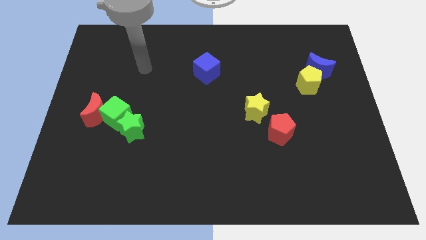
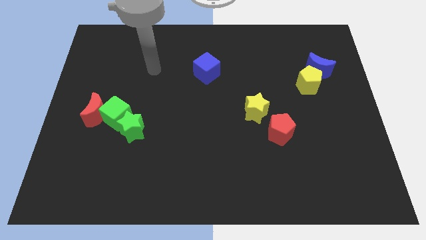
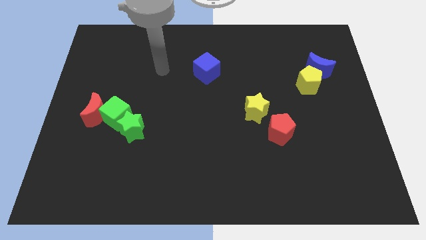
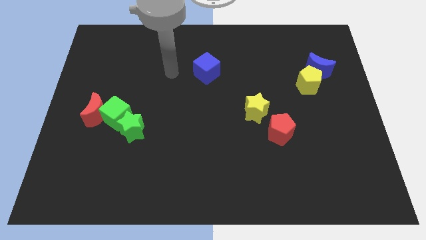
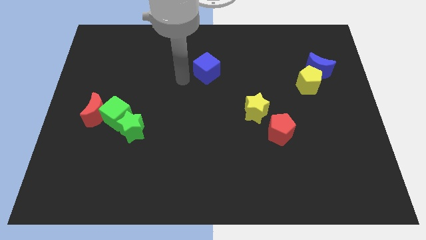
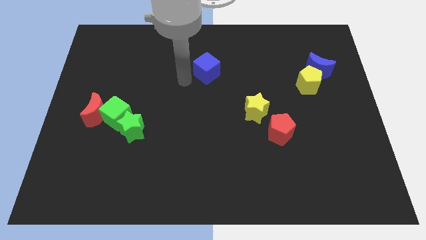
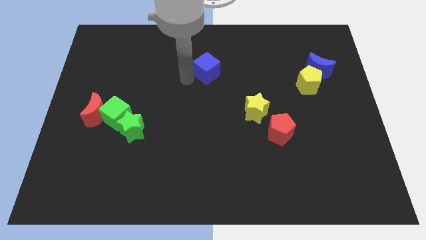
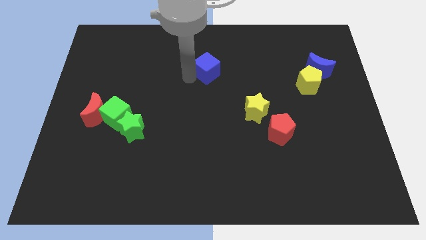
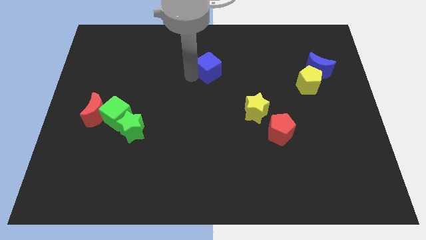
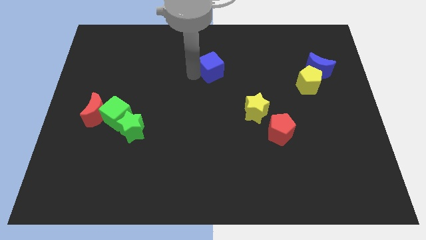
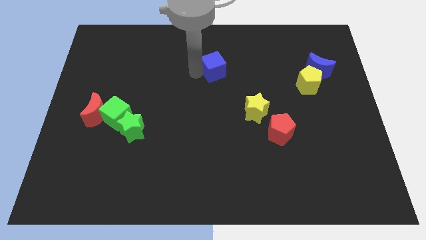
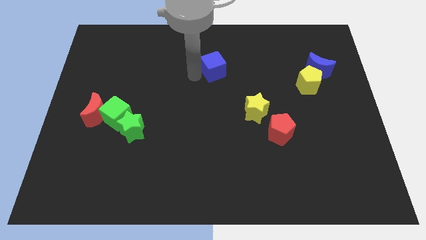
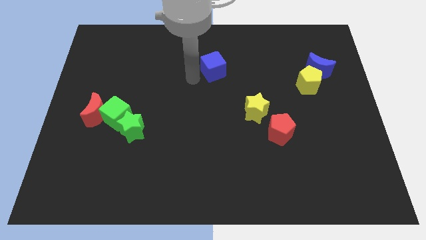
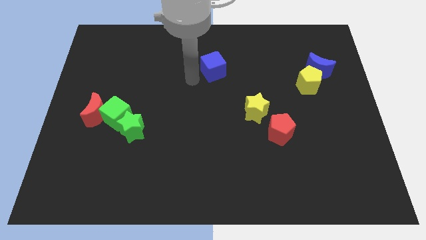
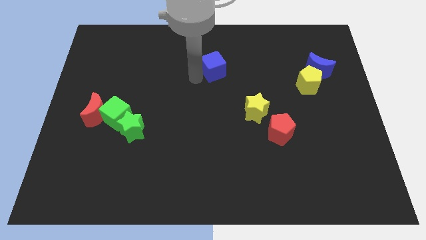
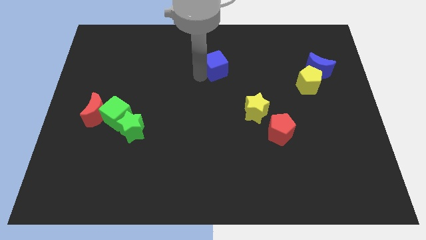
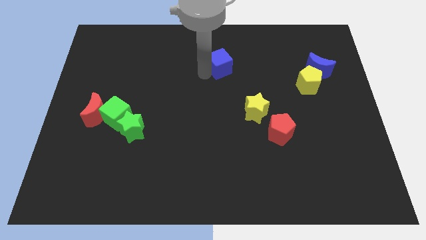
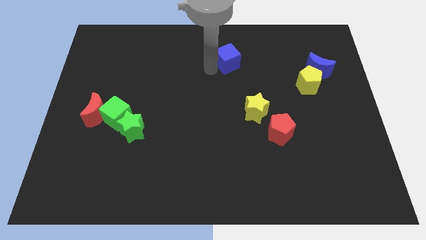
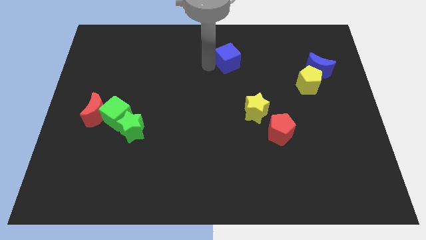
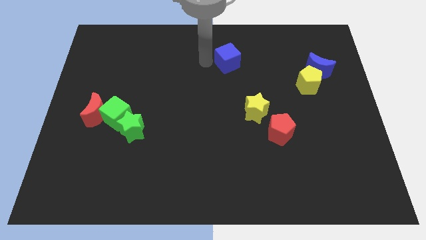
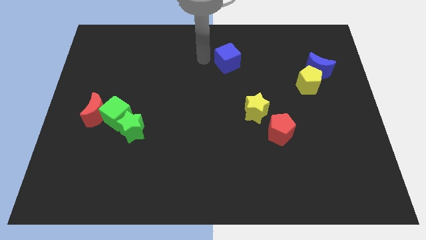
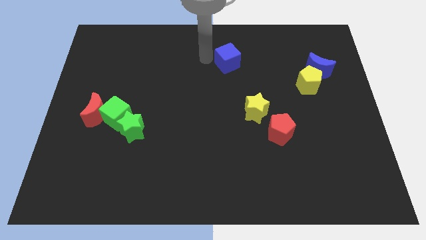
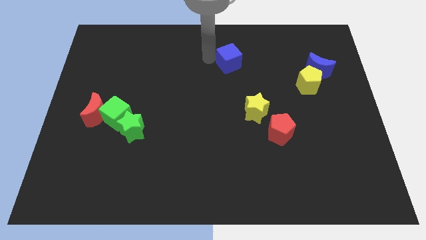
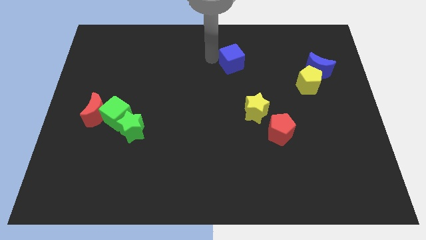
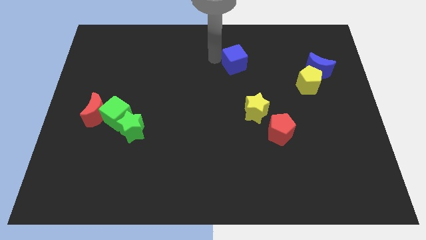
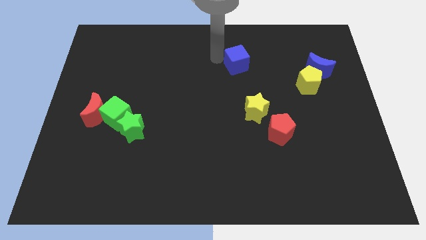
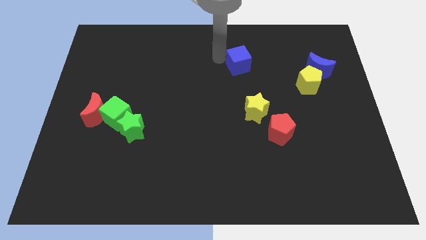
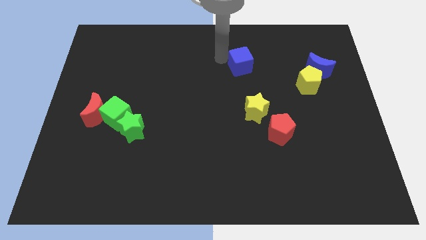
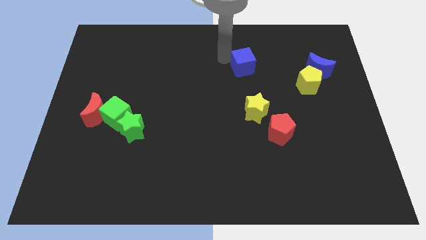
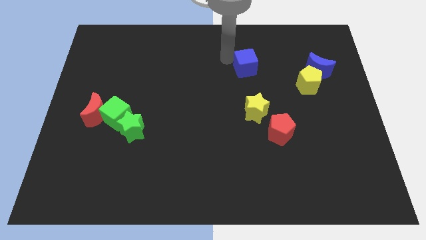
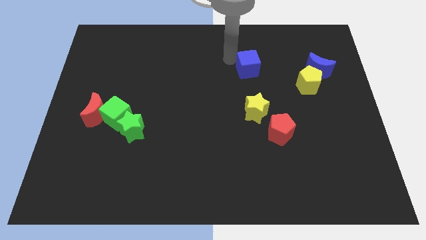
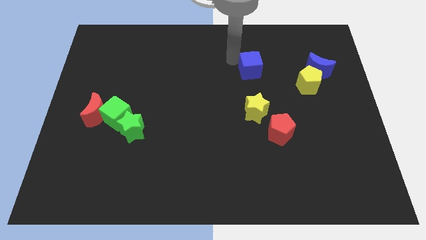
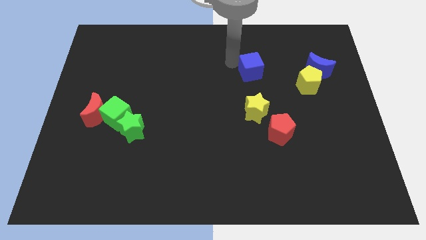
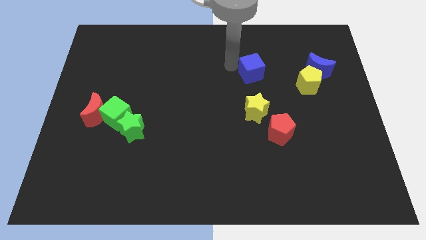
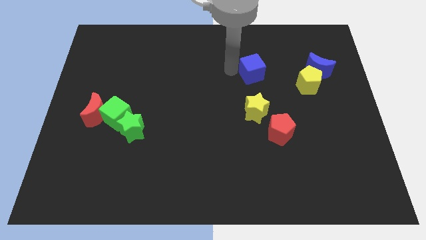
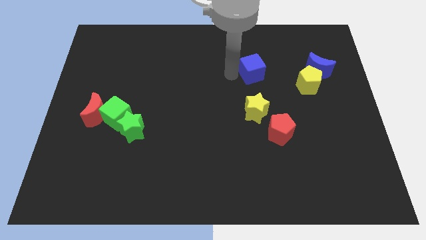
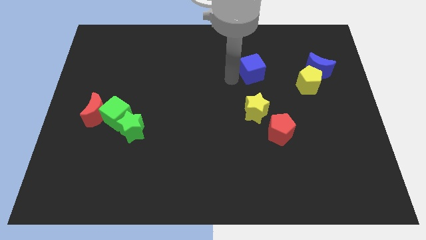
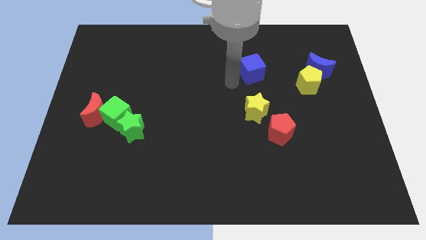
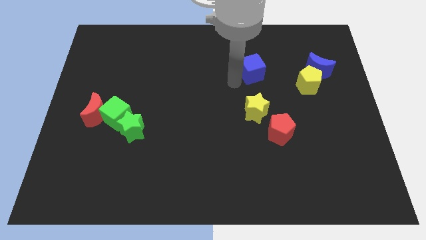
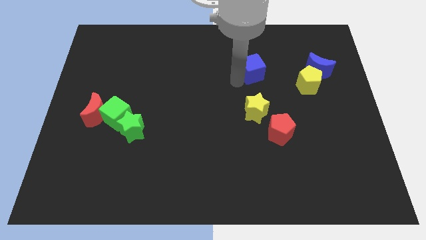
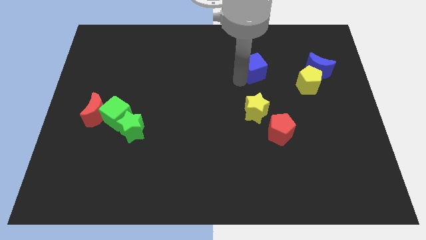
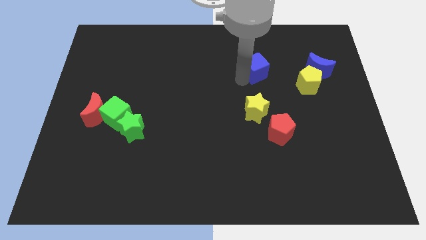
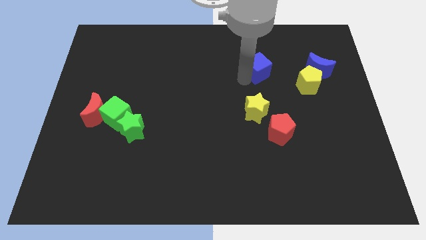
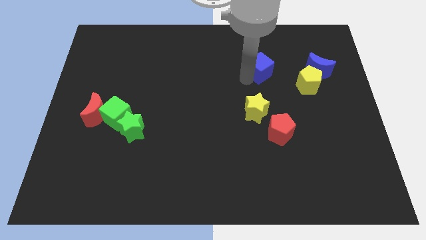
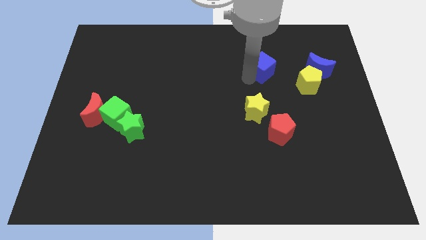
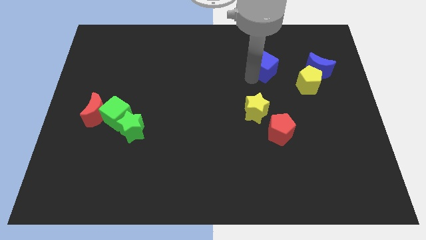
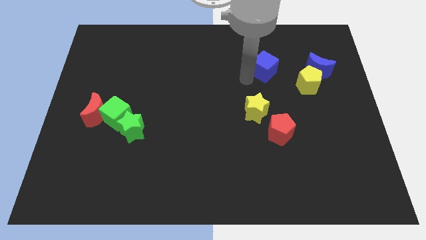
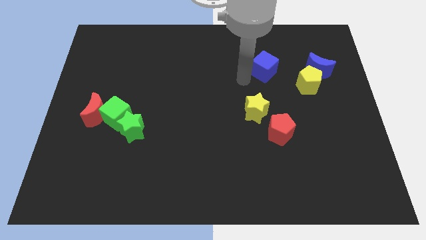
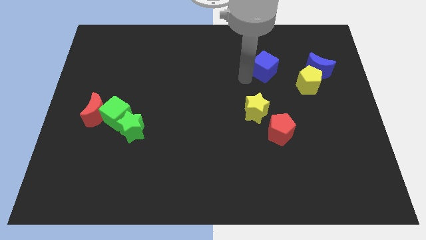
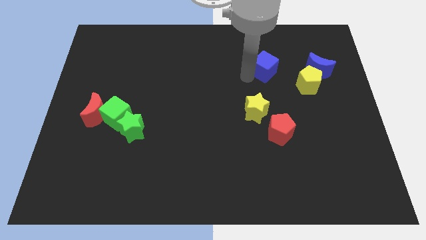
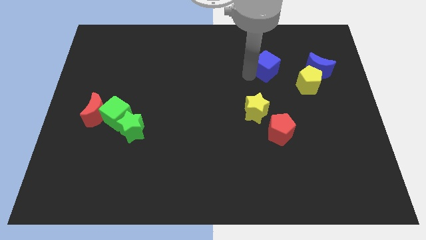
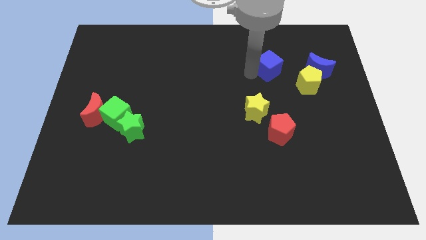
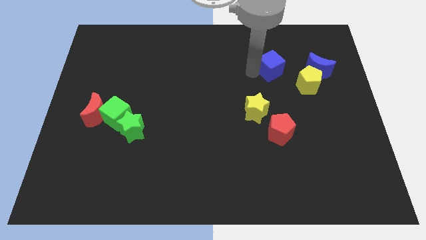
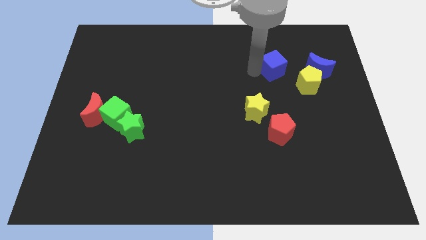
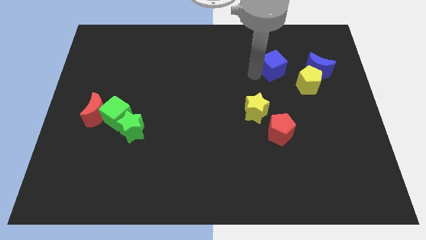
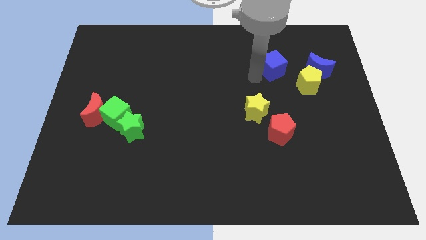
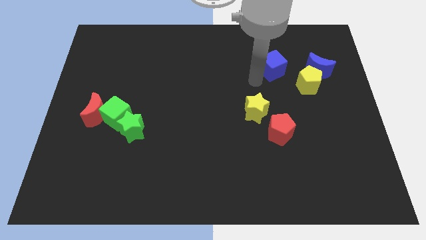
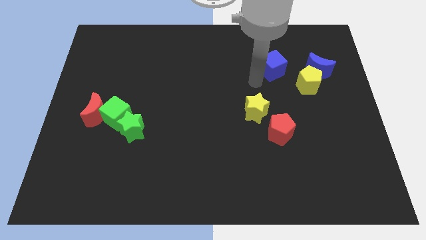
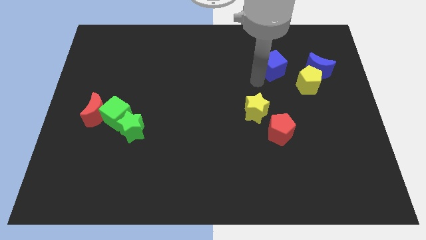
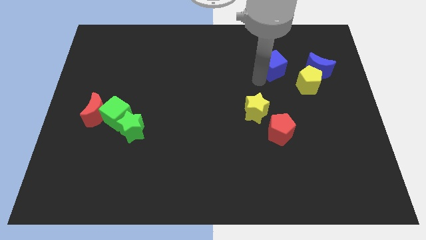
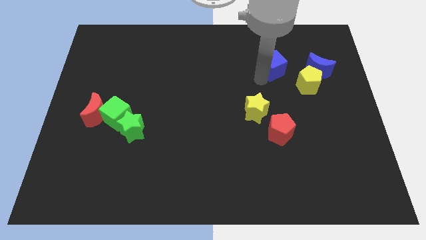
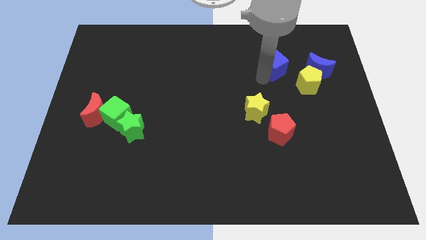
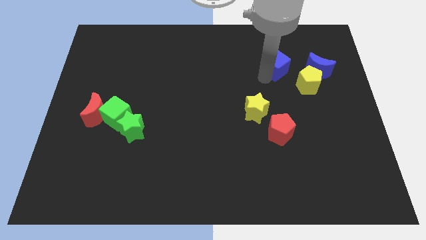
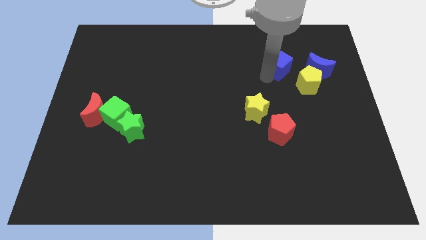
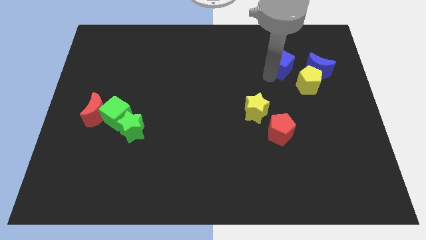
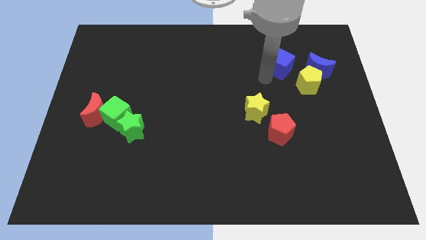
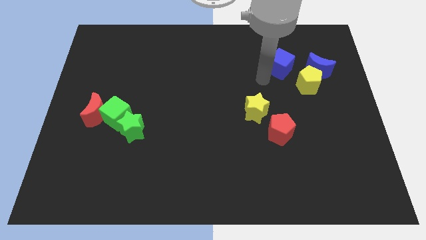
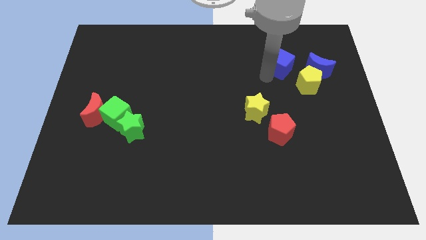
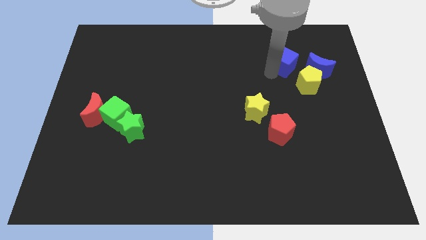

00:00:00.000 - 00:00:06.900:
push the blue cube to the top left of the blue moon
